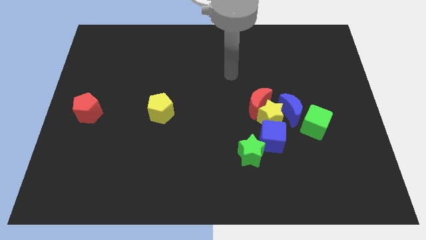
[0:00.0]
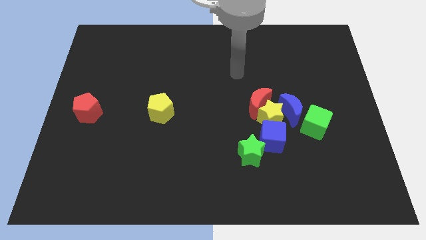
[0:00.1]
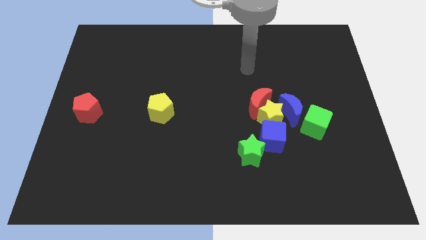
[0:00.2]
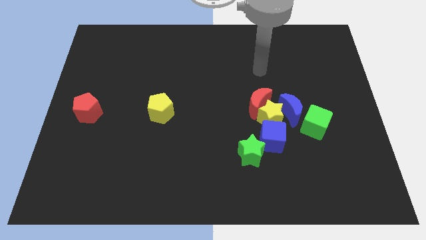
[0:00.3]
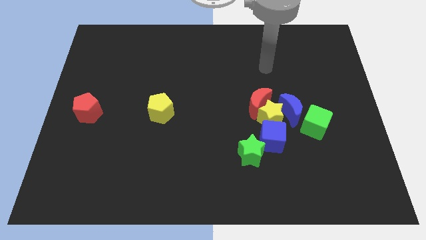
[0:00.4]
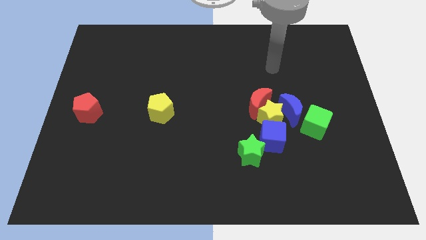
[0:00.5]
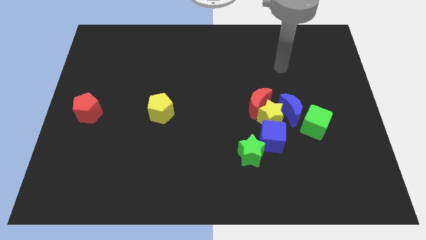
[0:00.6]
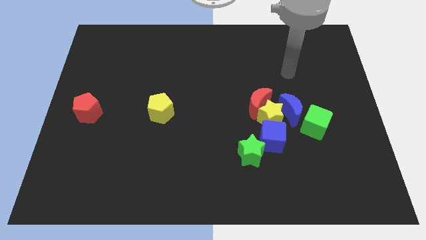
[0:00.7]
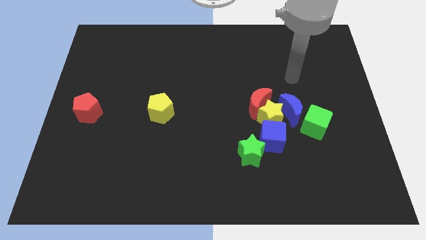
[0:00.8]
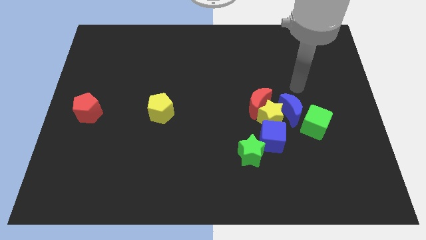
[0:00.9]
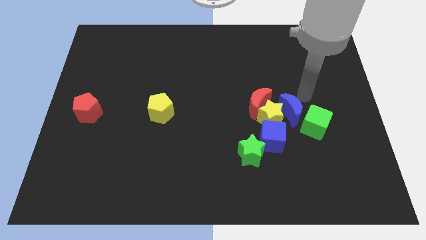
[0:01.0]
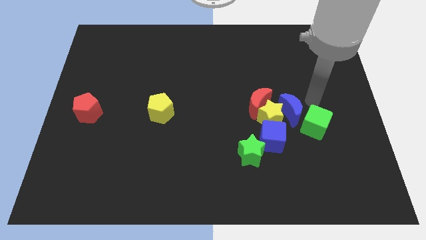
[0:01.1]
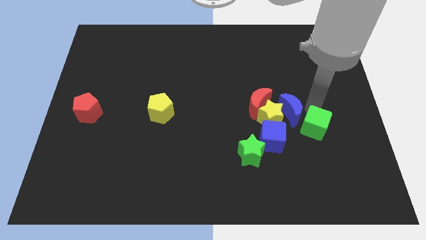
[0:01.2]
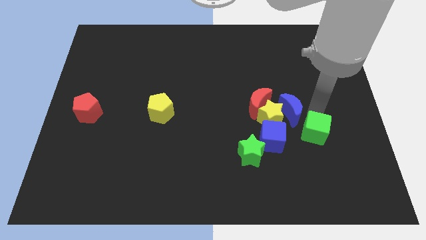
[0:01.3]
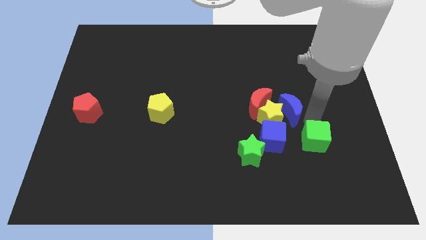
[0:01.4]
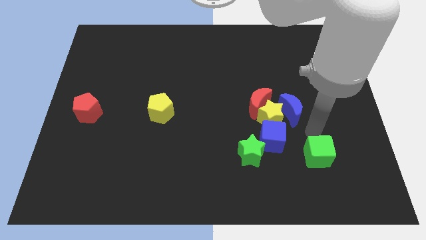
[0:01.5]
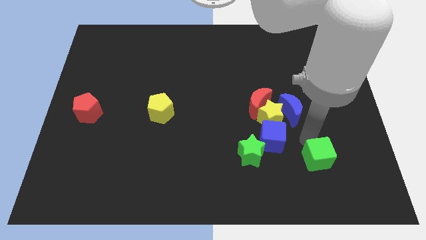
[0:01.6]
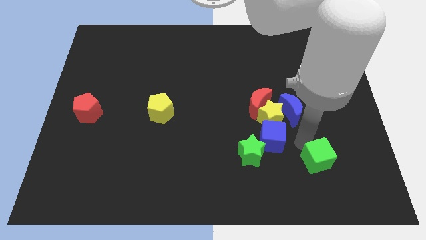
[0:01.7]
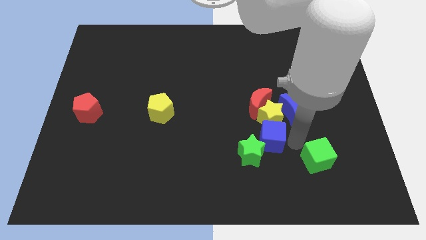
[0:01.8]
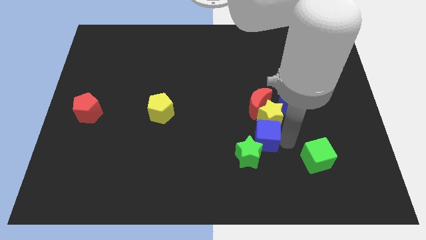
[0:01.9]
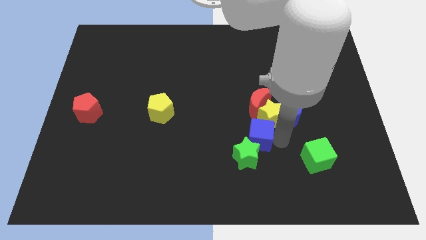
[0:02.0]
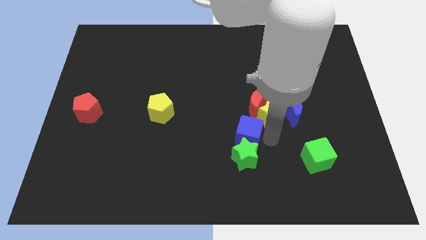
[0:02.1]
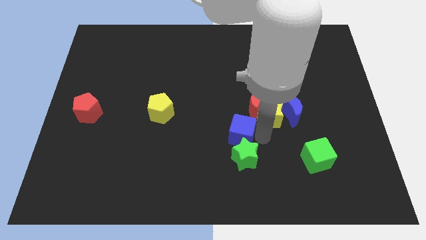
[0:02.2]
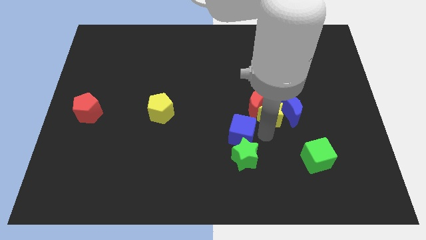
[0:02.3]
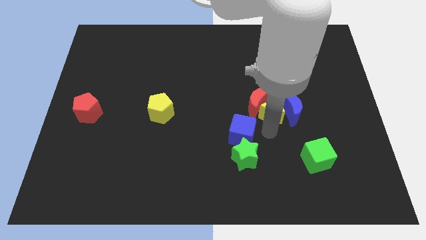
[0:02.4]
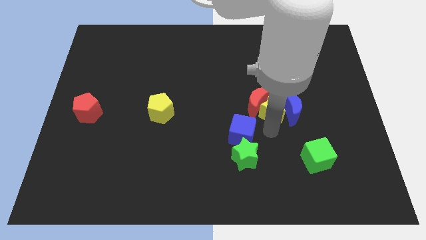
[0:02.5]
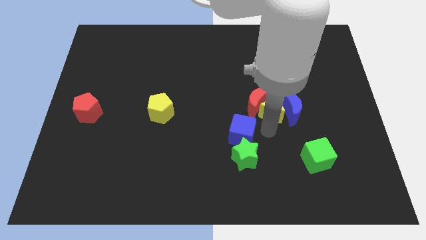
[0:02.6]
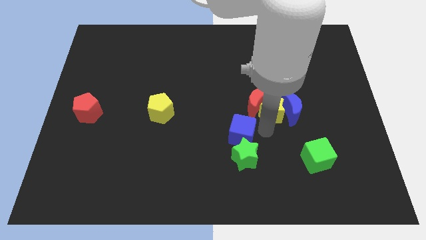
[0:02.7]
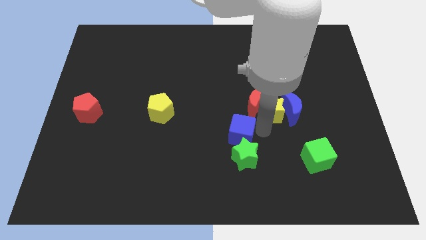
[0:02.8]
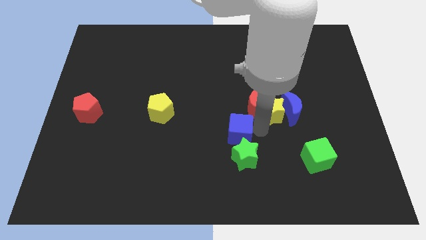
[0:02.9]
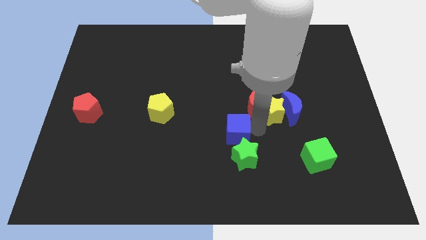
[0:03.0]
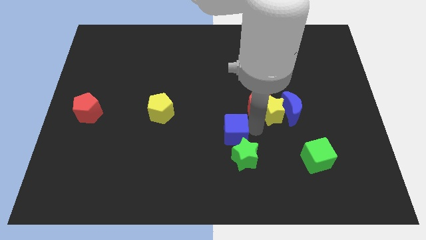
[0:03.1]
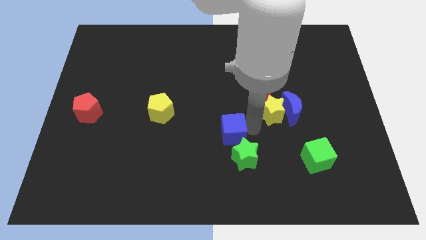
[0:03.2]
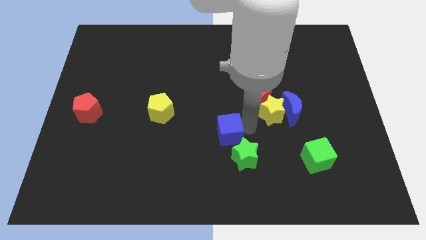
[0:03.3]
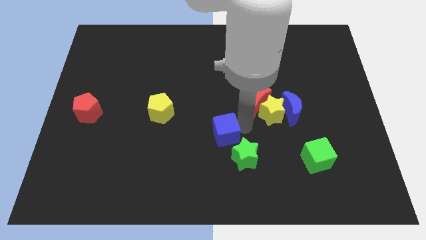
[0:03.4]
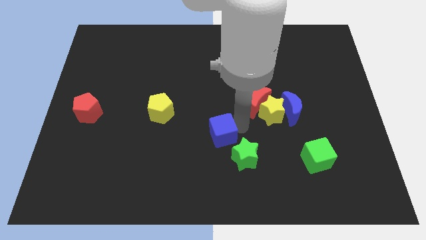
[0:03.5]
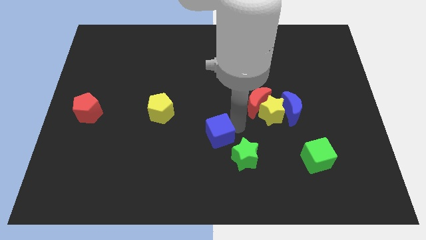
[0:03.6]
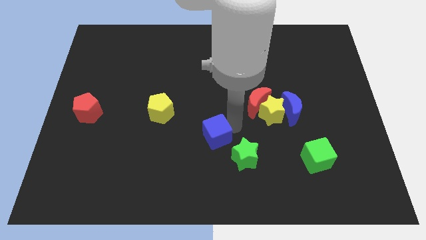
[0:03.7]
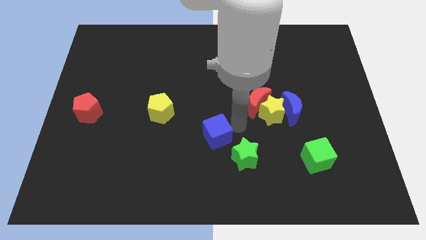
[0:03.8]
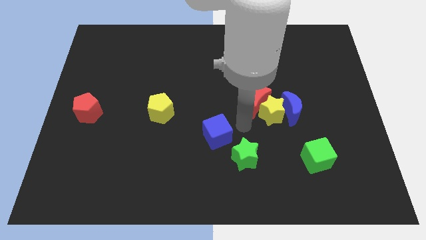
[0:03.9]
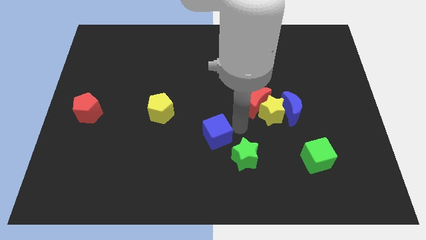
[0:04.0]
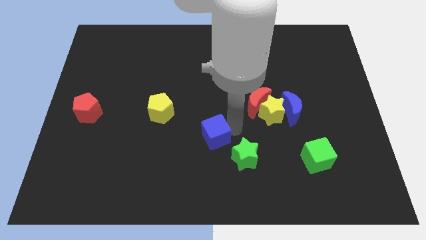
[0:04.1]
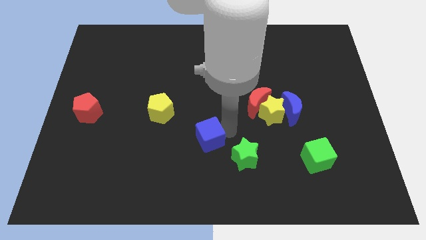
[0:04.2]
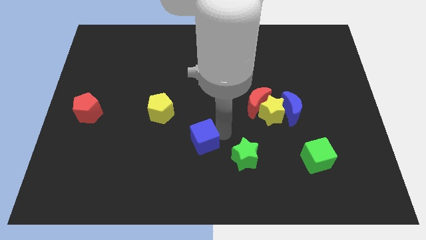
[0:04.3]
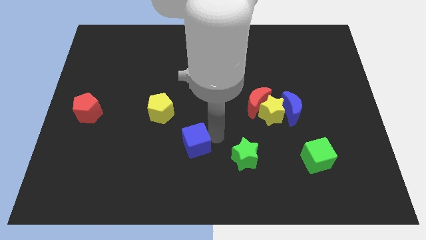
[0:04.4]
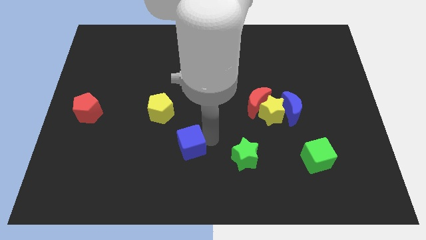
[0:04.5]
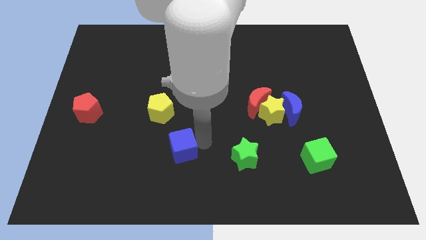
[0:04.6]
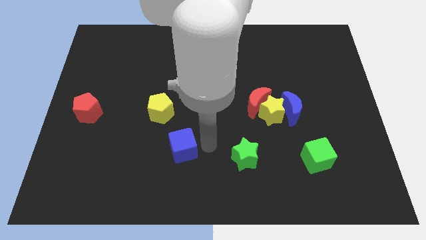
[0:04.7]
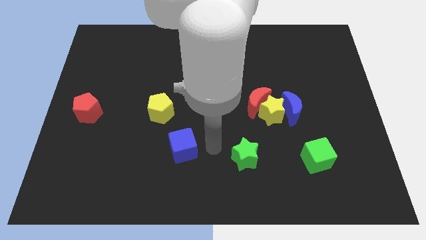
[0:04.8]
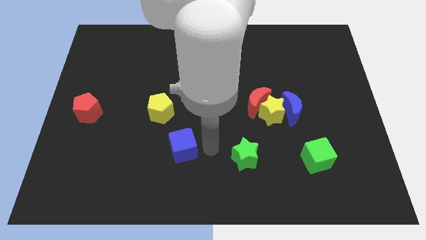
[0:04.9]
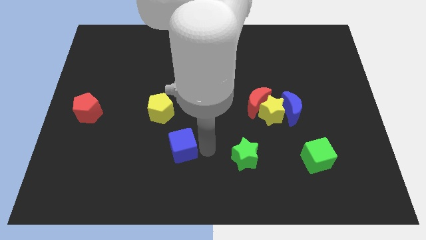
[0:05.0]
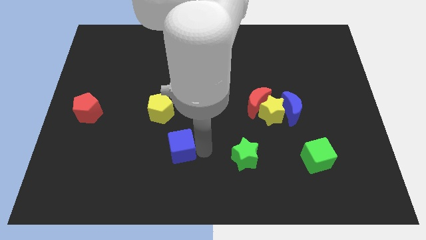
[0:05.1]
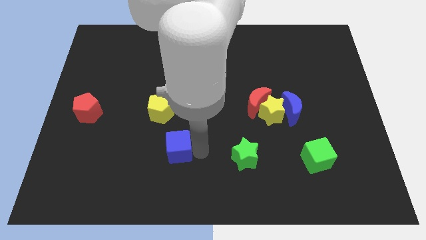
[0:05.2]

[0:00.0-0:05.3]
slide the blue cube below the yellow pentagon

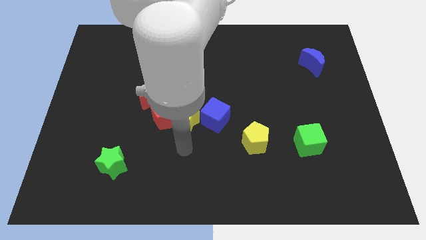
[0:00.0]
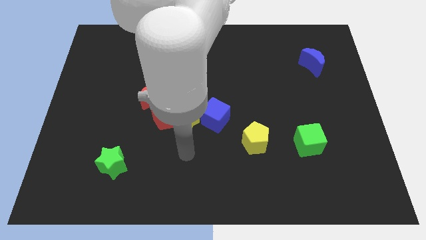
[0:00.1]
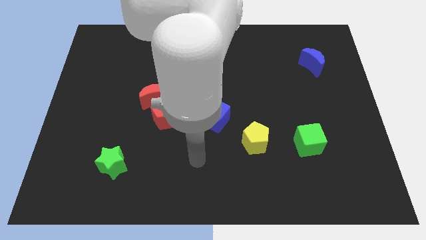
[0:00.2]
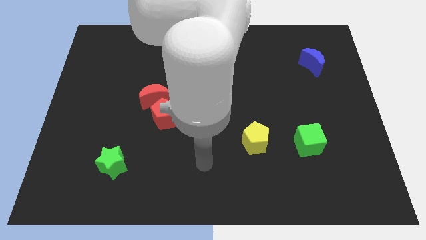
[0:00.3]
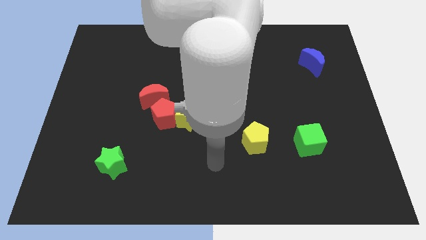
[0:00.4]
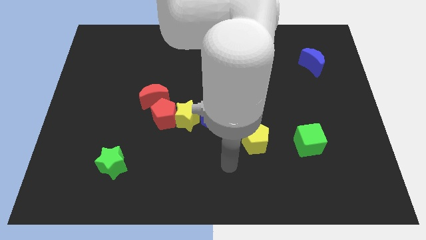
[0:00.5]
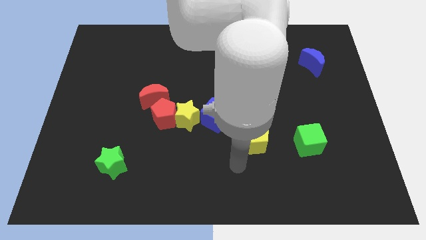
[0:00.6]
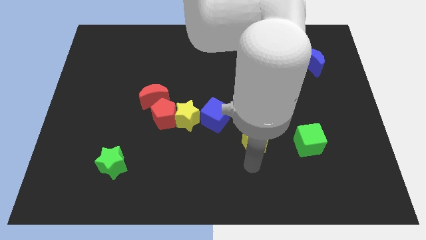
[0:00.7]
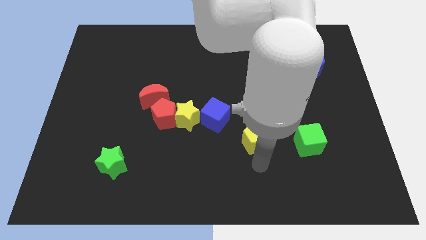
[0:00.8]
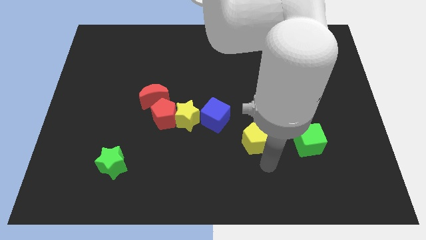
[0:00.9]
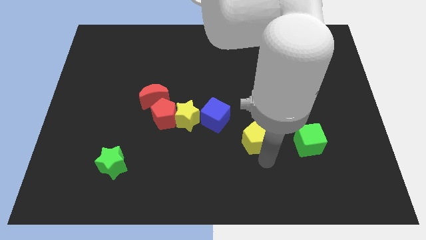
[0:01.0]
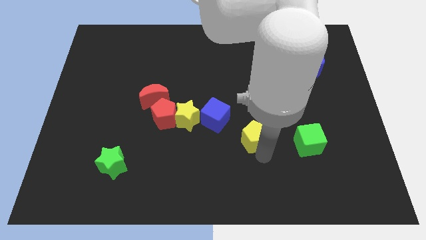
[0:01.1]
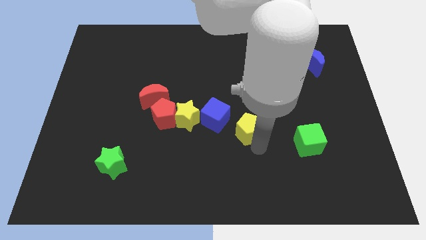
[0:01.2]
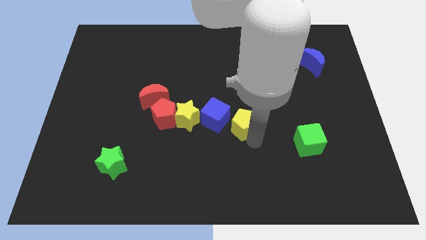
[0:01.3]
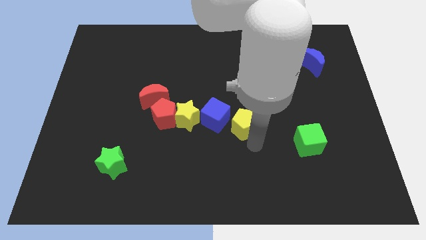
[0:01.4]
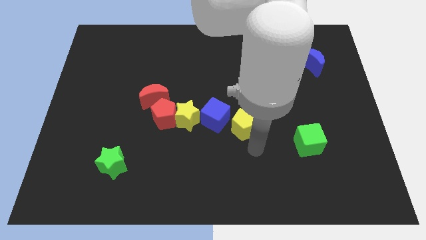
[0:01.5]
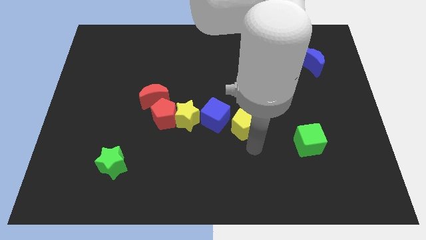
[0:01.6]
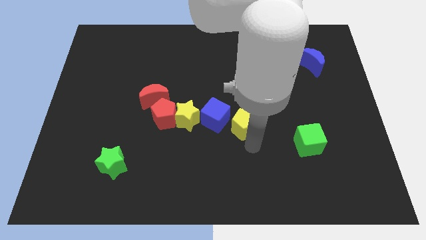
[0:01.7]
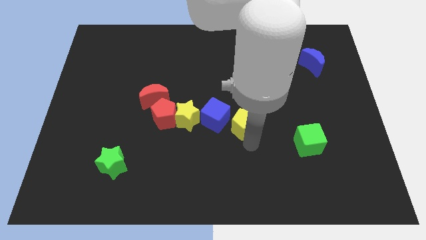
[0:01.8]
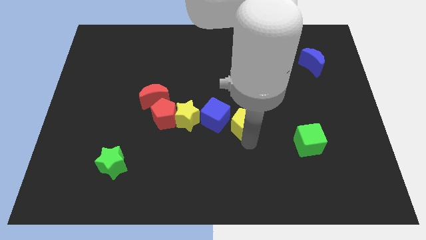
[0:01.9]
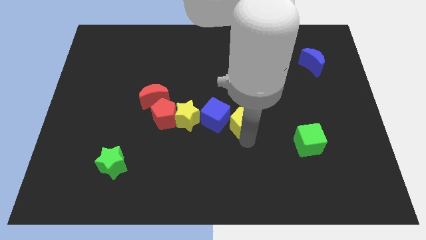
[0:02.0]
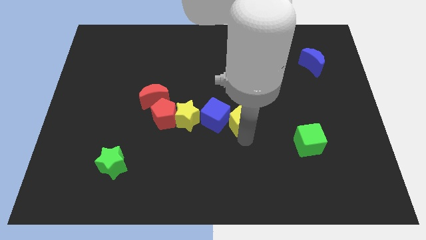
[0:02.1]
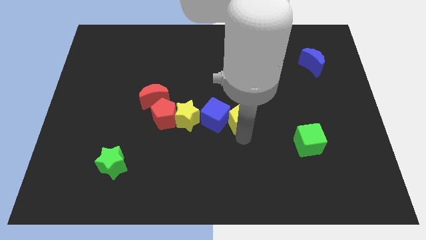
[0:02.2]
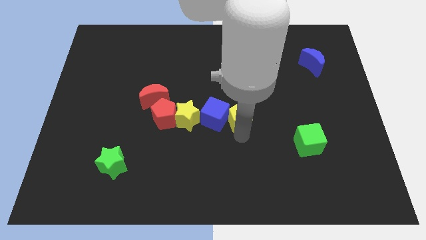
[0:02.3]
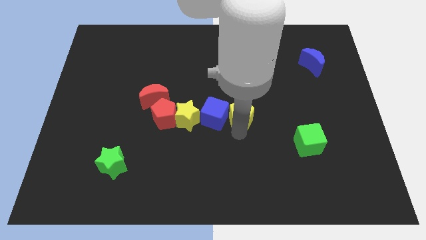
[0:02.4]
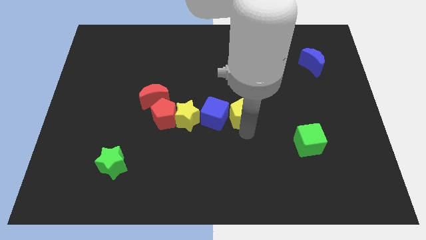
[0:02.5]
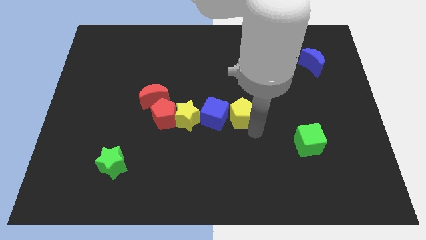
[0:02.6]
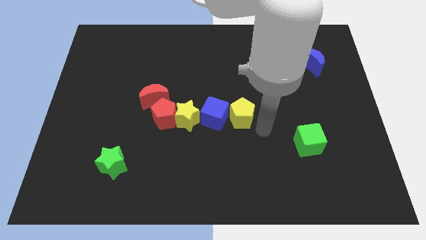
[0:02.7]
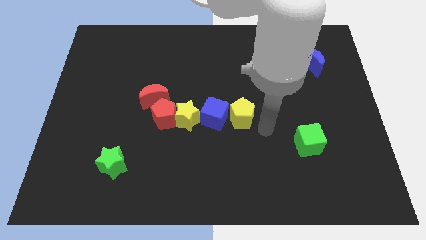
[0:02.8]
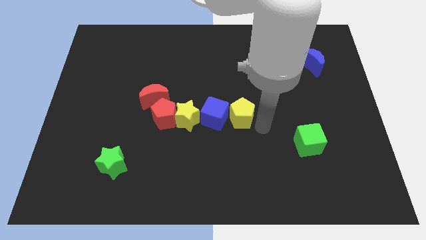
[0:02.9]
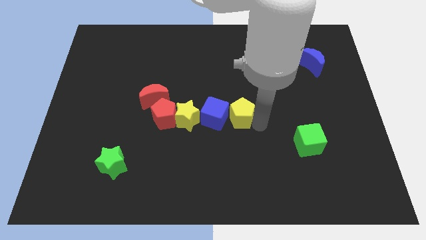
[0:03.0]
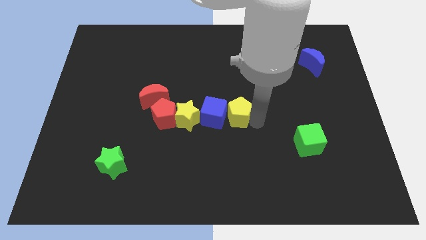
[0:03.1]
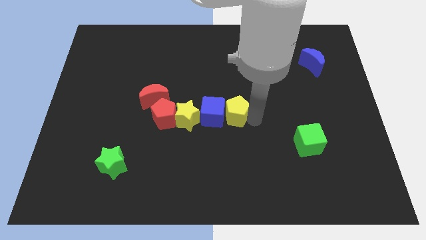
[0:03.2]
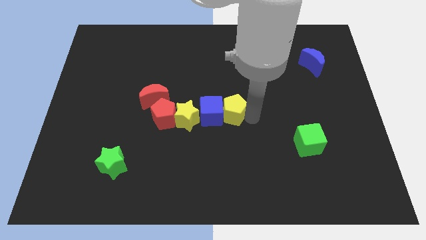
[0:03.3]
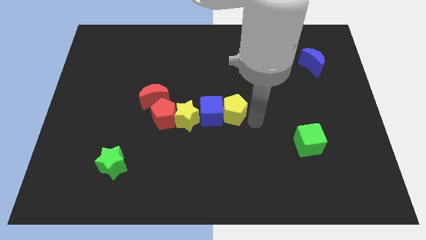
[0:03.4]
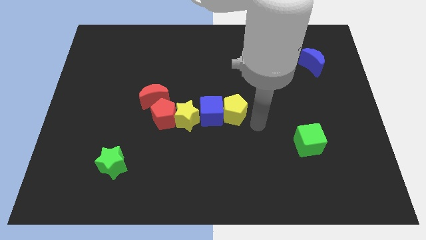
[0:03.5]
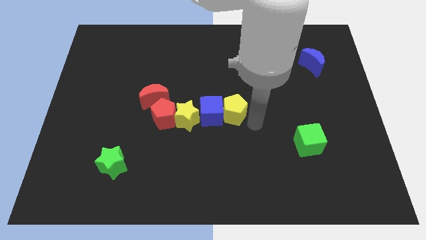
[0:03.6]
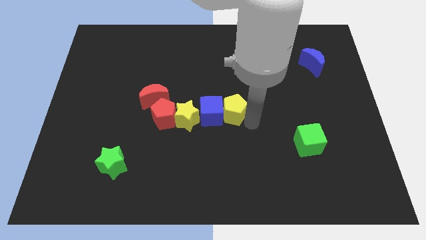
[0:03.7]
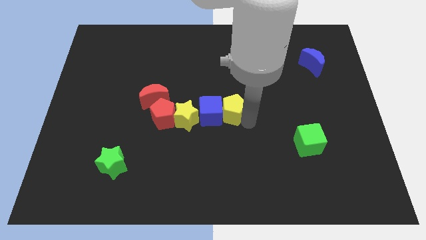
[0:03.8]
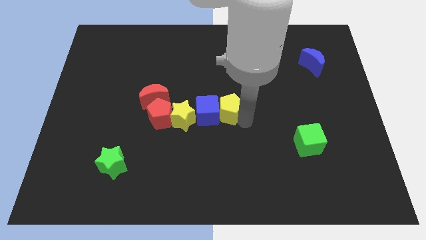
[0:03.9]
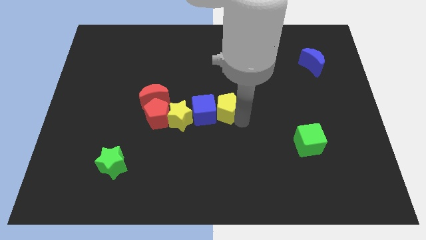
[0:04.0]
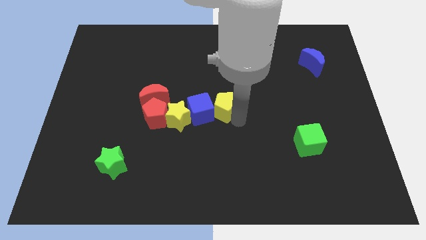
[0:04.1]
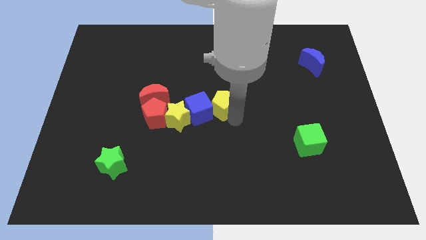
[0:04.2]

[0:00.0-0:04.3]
put the yellow pentagon to the top right of the yellow star
